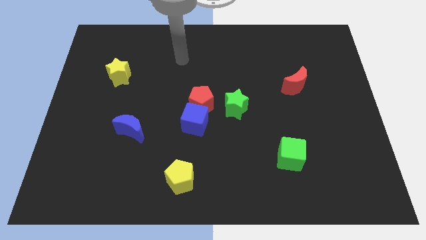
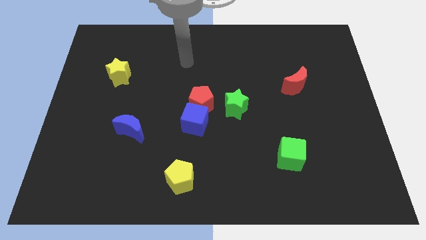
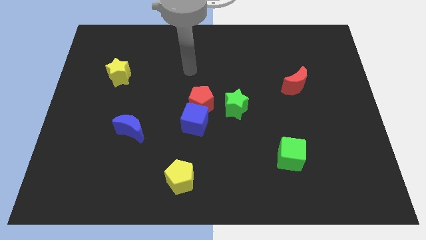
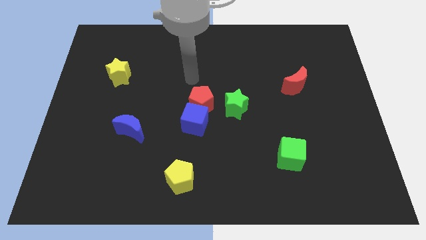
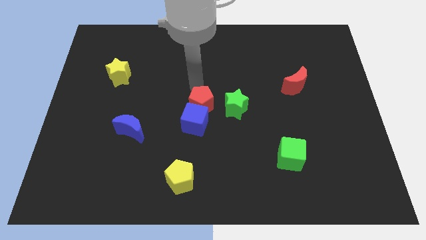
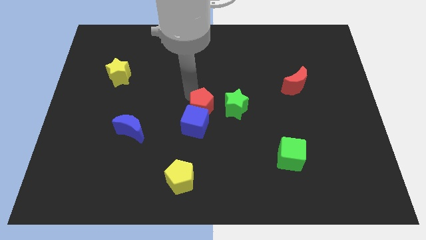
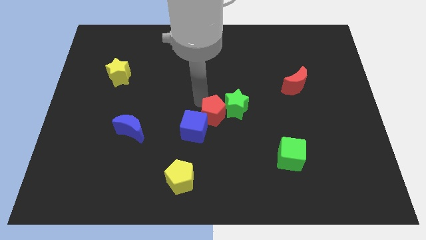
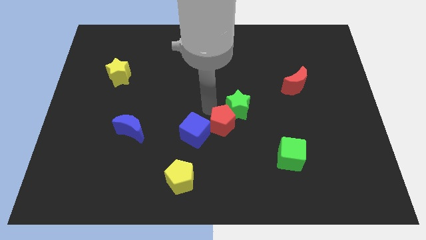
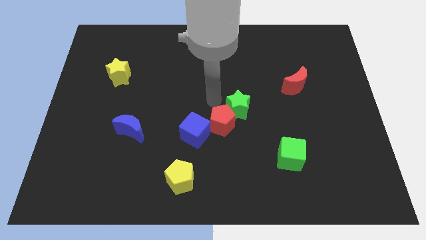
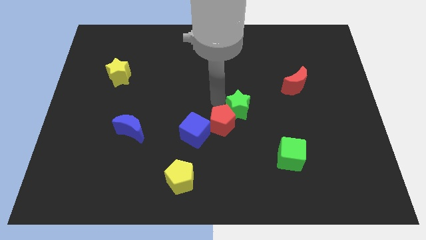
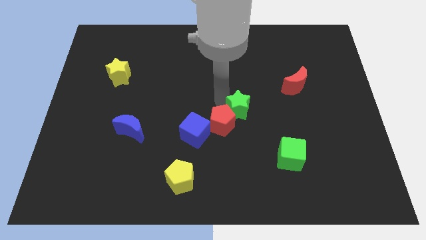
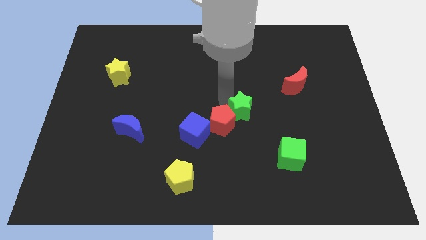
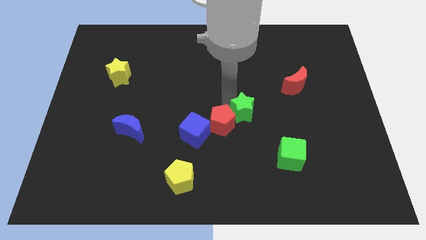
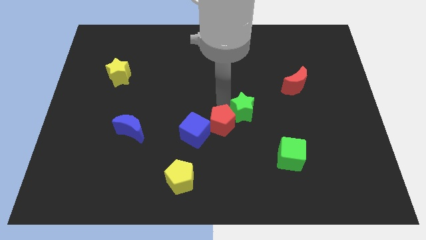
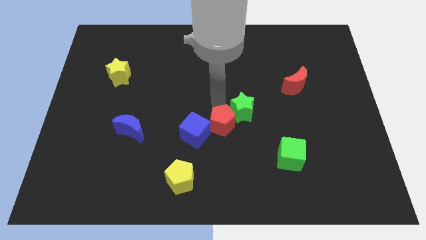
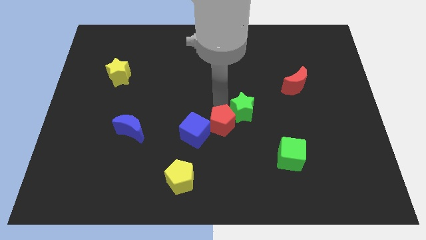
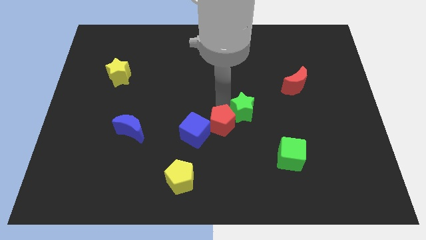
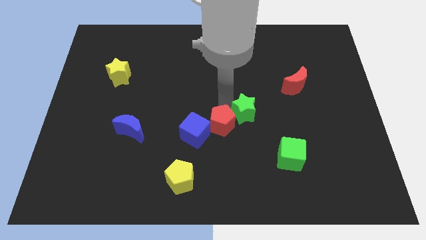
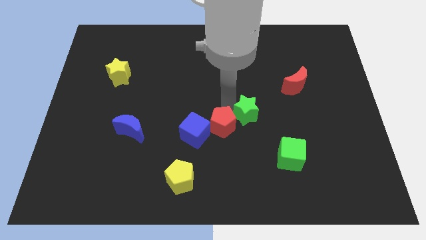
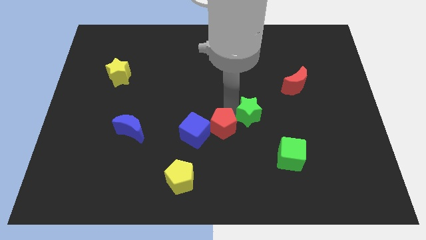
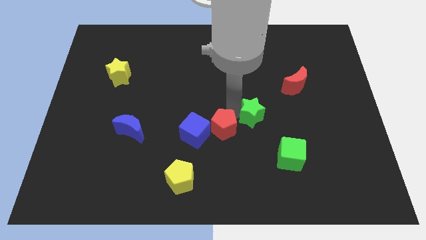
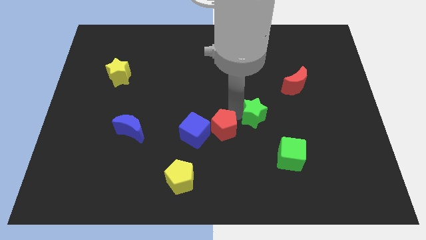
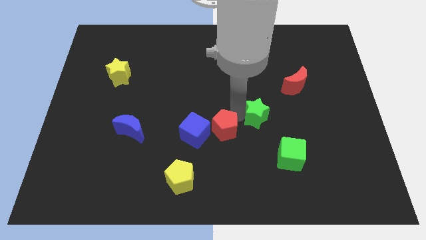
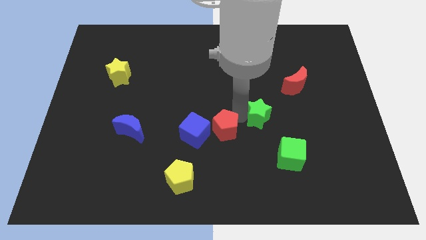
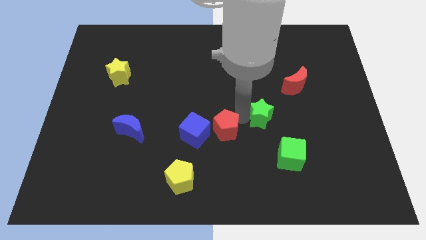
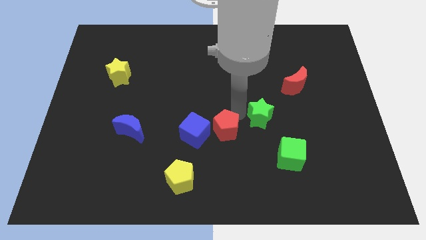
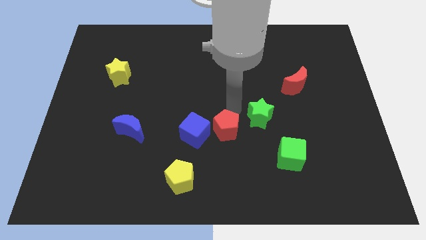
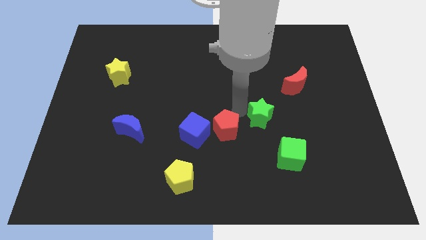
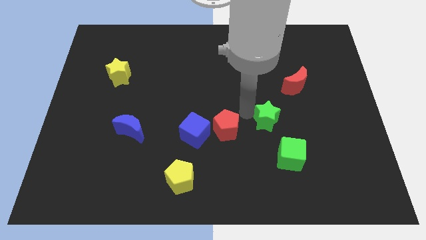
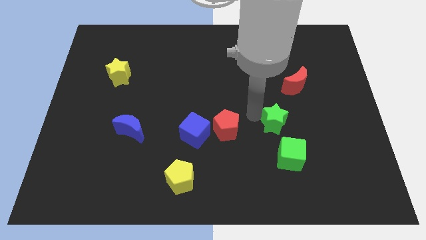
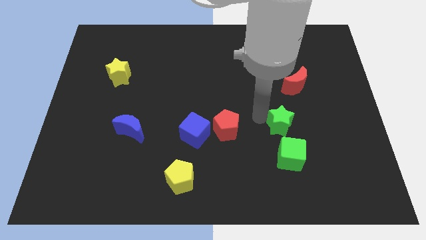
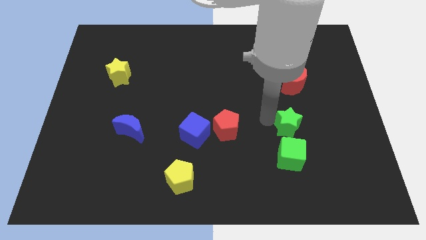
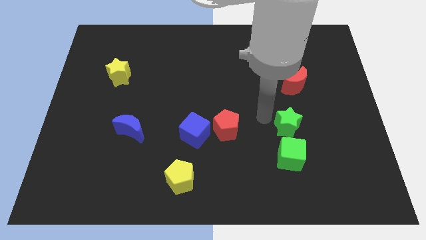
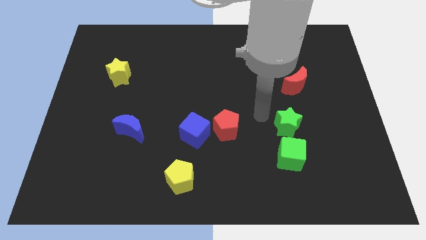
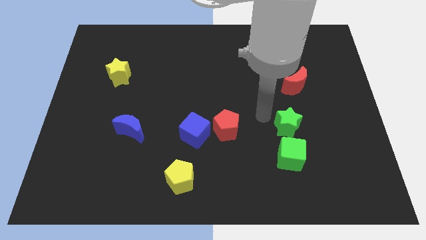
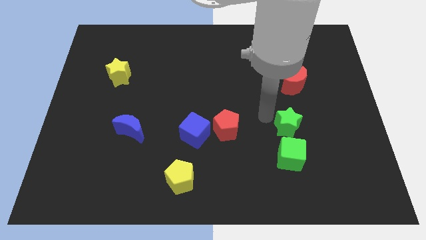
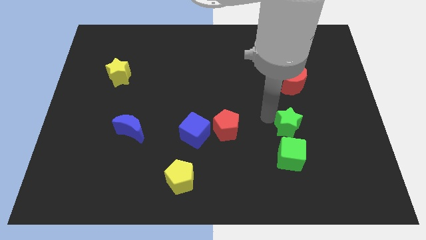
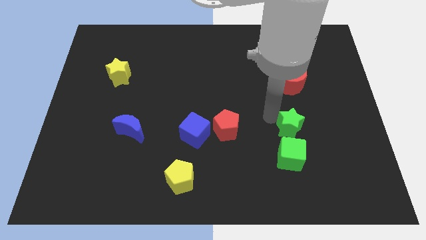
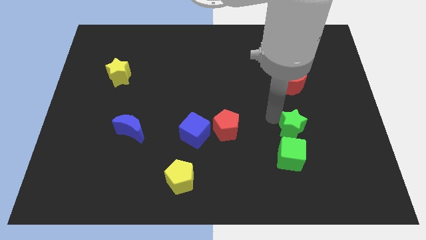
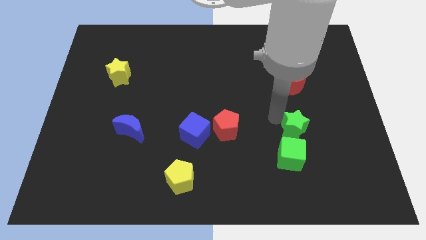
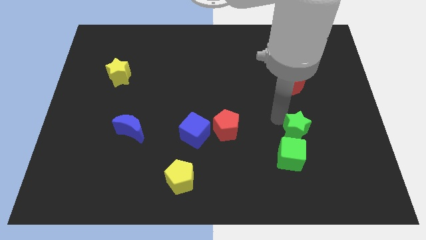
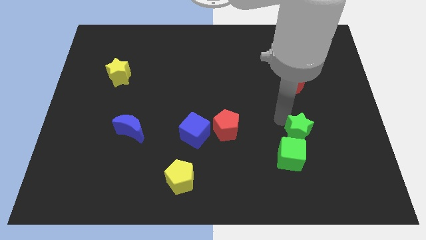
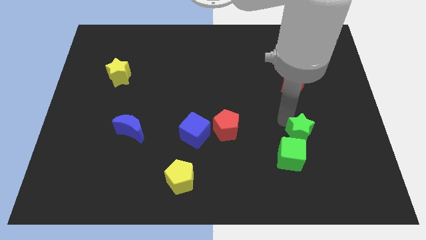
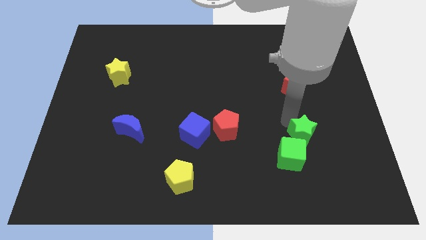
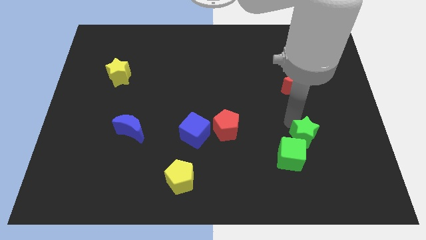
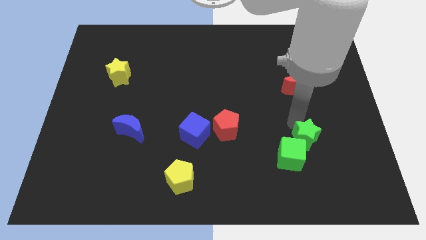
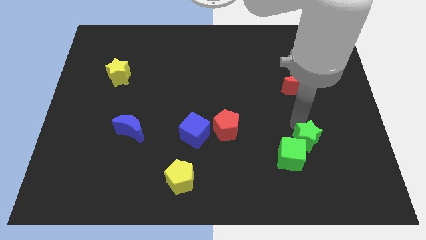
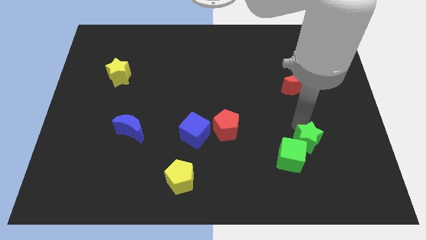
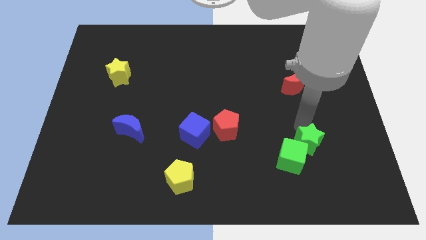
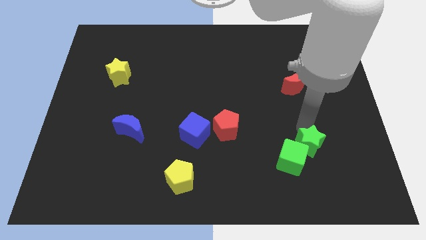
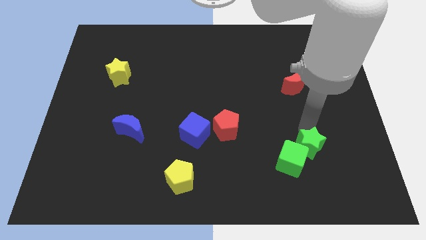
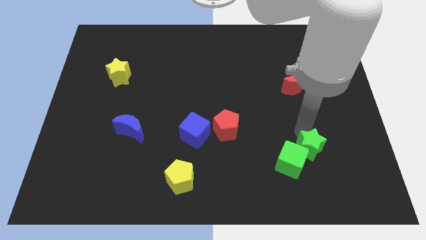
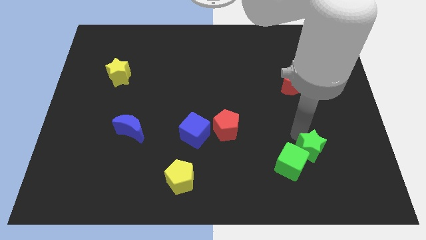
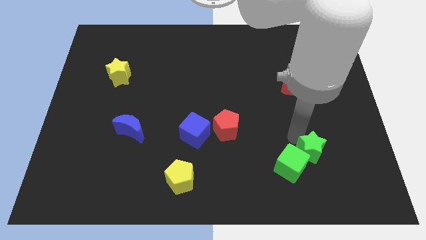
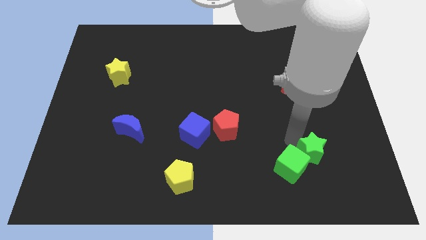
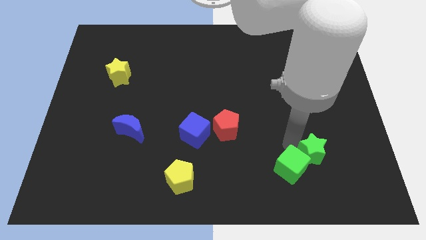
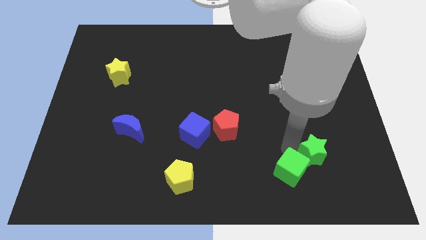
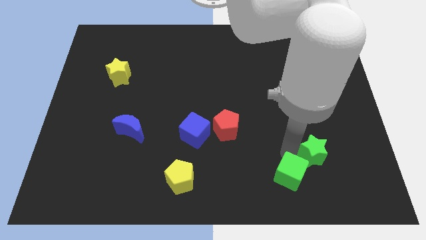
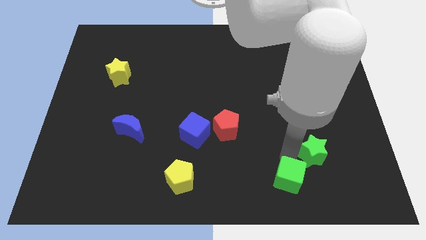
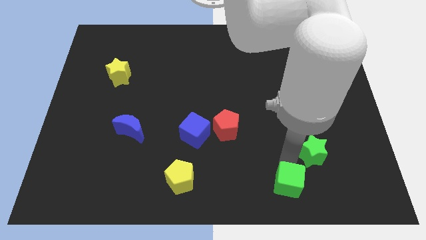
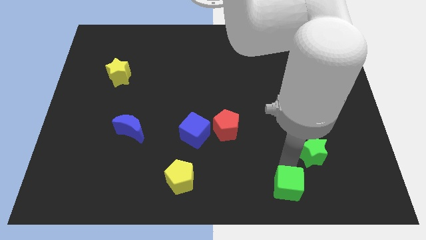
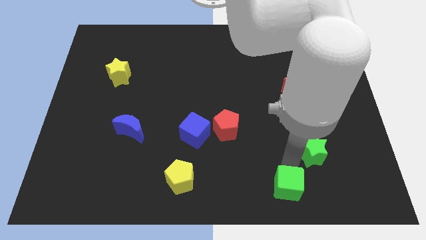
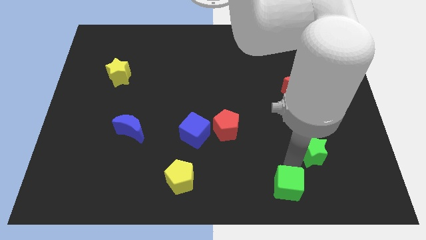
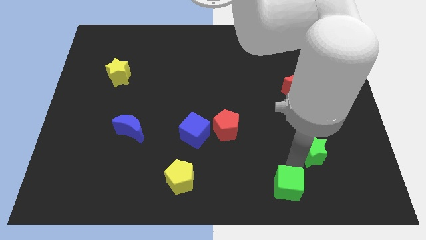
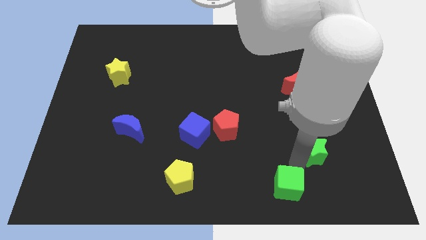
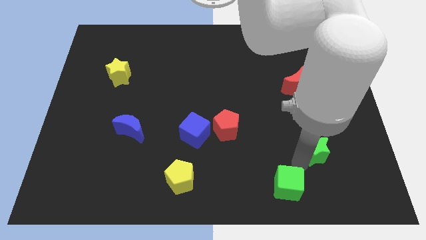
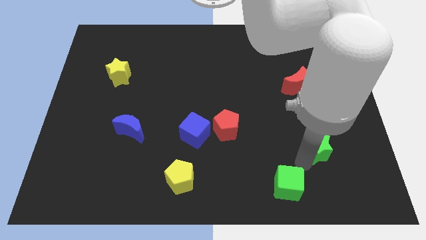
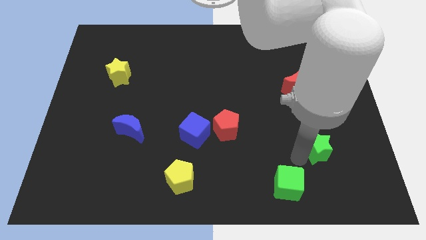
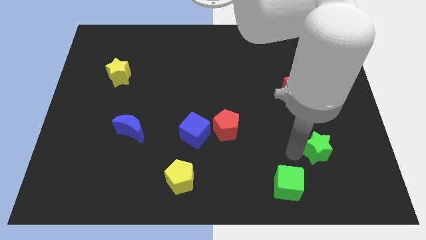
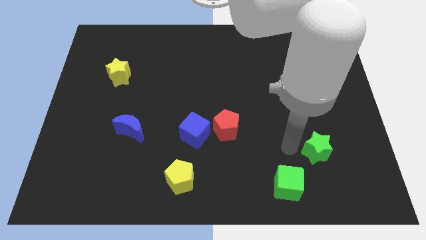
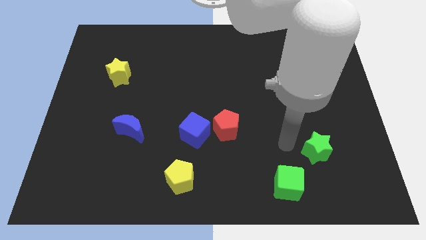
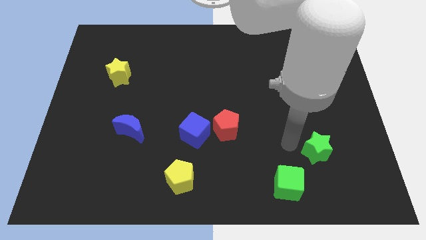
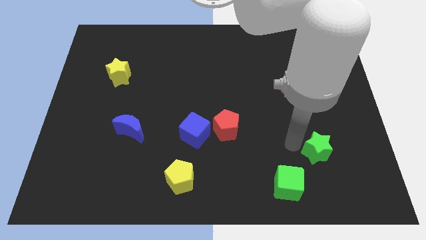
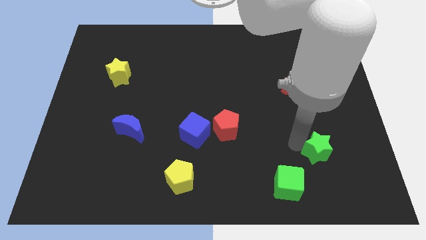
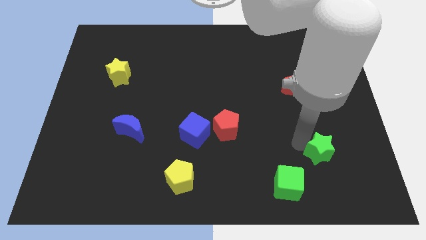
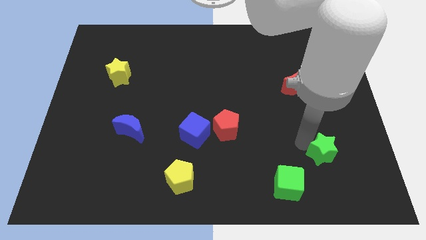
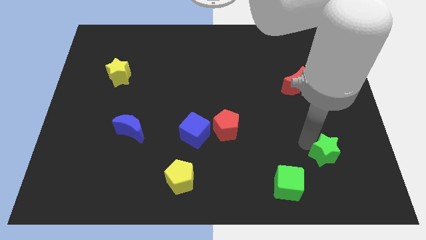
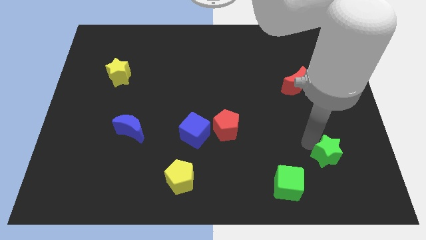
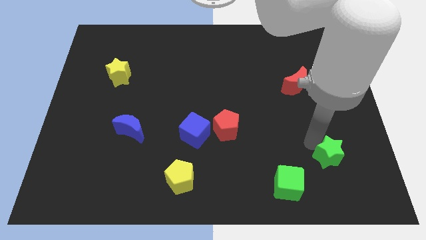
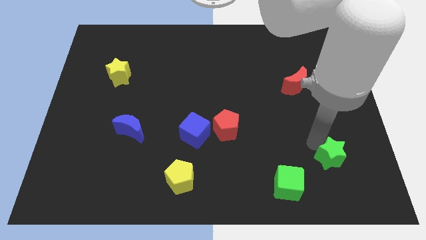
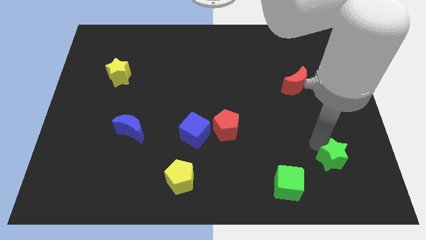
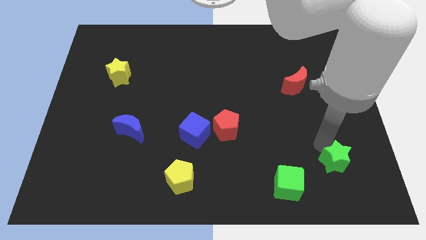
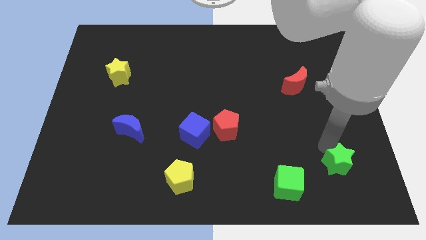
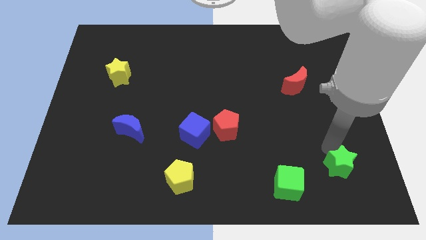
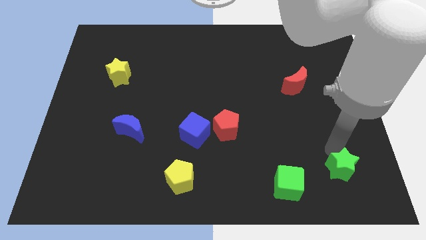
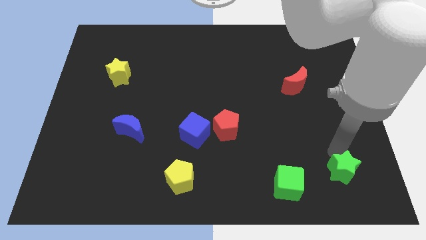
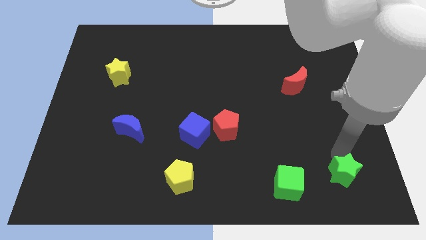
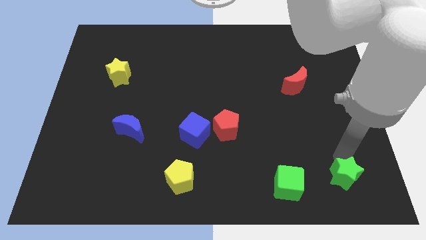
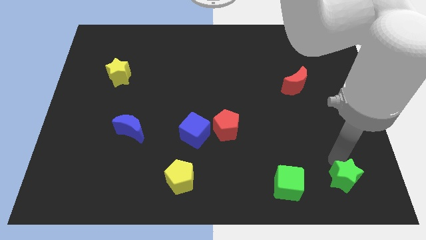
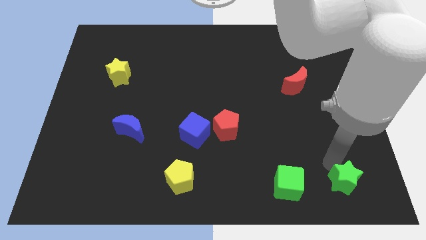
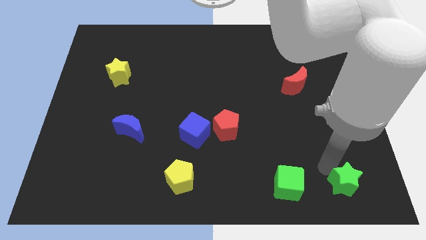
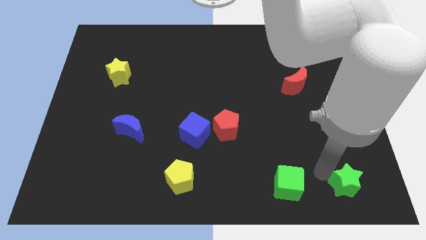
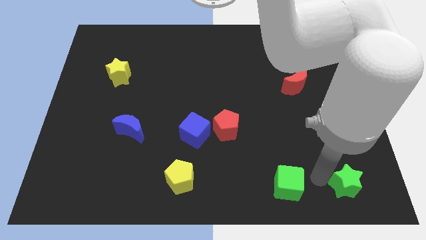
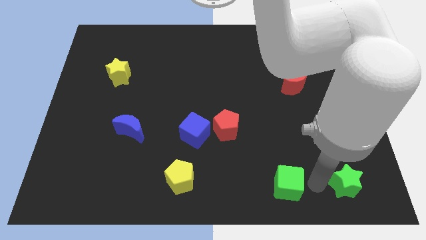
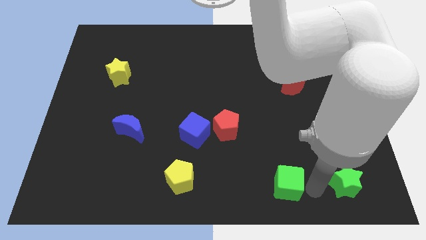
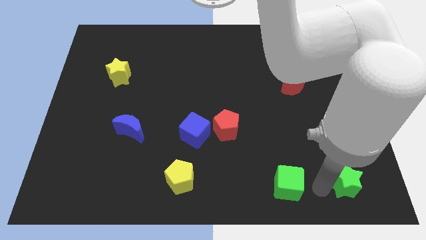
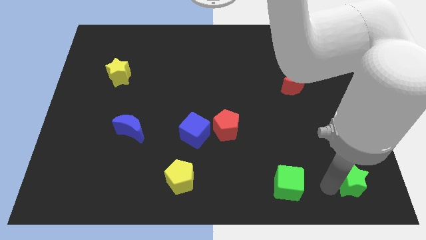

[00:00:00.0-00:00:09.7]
put the green star to the bottom right
